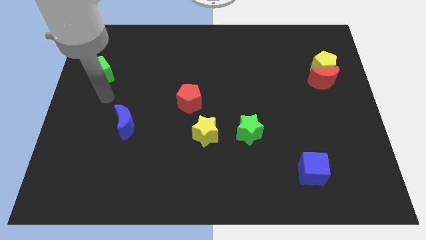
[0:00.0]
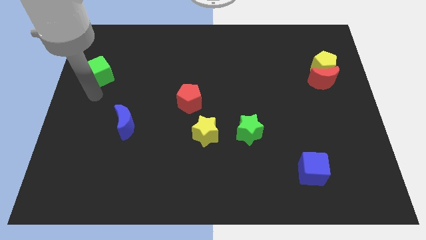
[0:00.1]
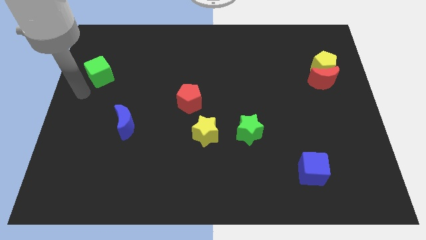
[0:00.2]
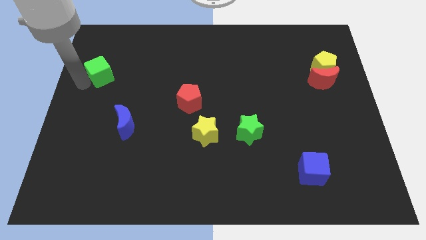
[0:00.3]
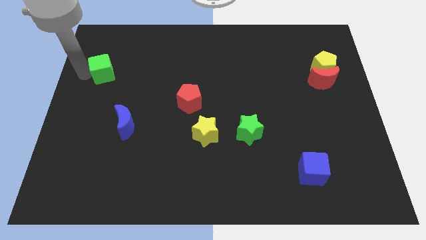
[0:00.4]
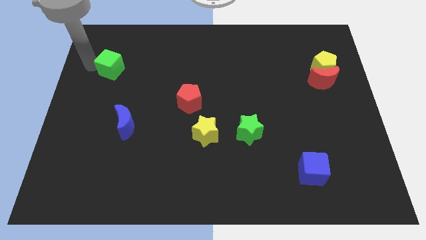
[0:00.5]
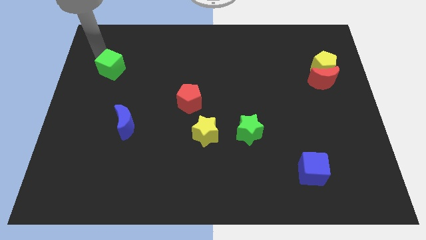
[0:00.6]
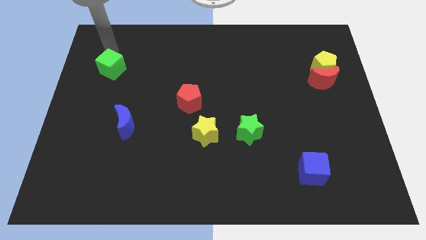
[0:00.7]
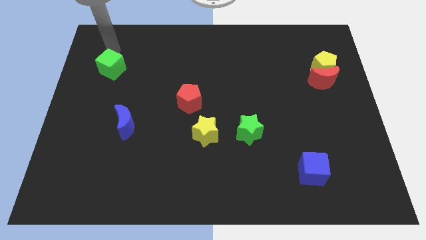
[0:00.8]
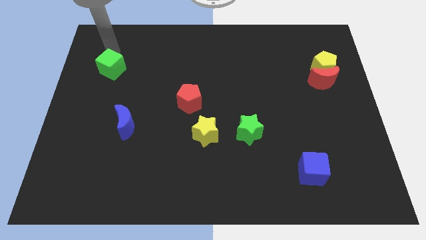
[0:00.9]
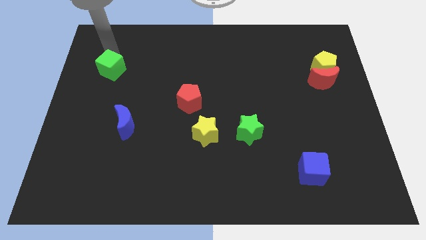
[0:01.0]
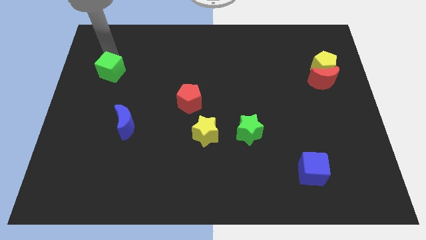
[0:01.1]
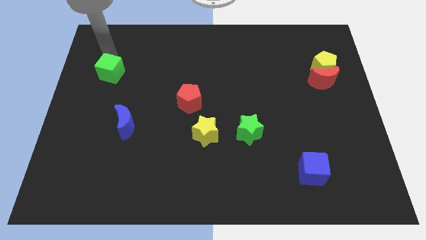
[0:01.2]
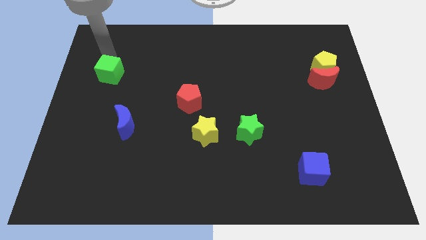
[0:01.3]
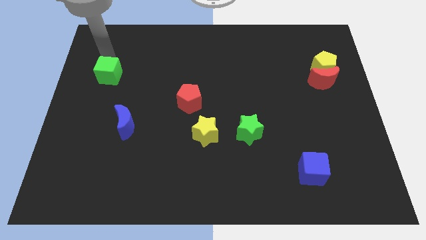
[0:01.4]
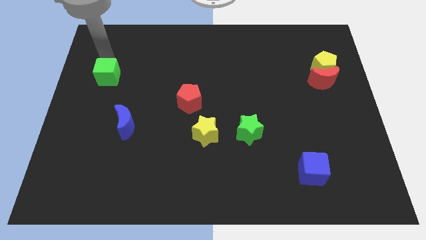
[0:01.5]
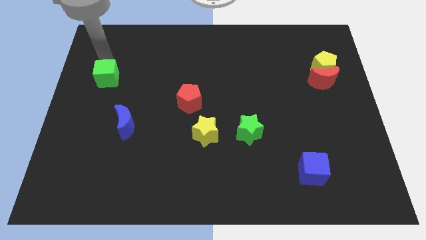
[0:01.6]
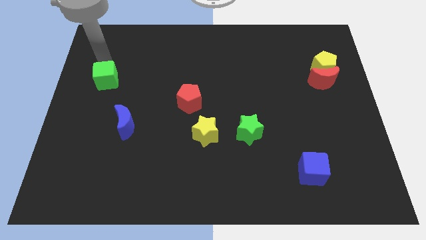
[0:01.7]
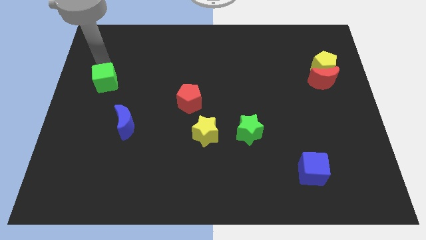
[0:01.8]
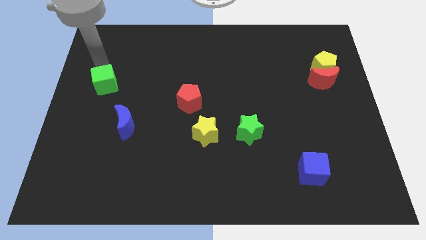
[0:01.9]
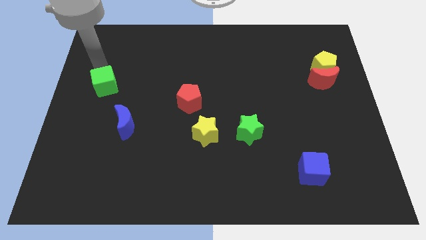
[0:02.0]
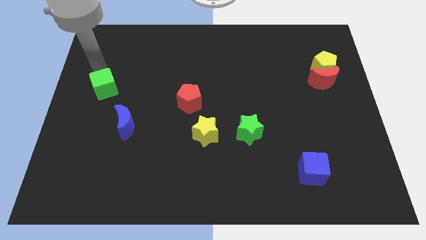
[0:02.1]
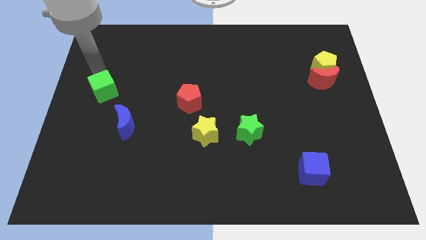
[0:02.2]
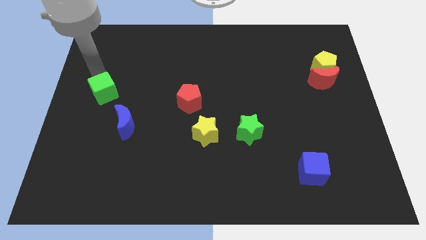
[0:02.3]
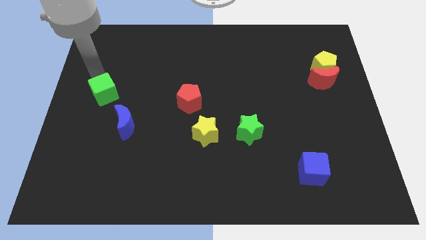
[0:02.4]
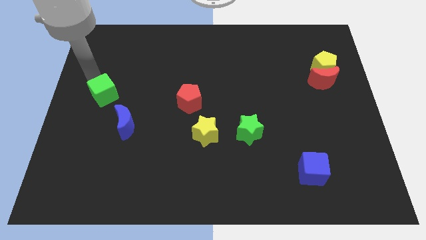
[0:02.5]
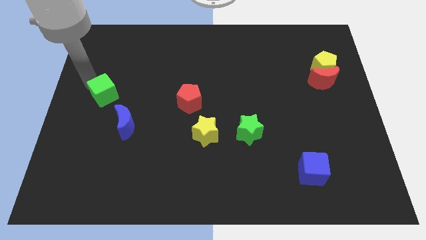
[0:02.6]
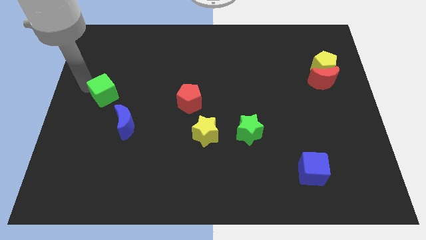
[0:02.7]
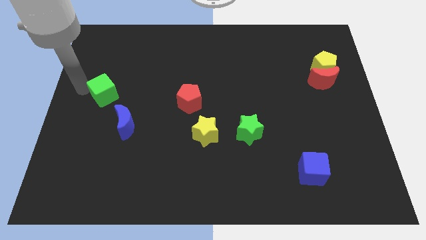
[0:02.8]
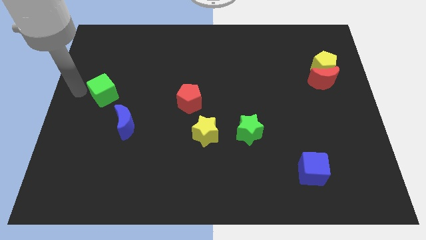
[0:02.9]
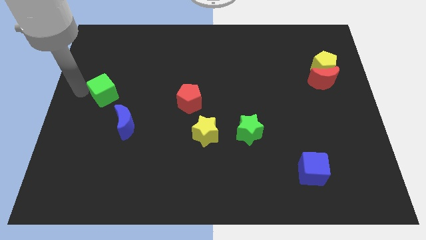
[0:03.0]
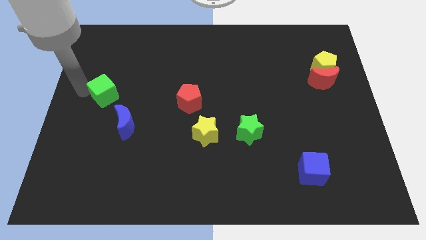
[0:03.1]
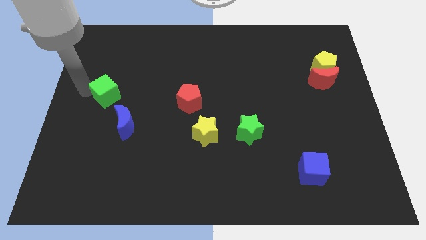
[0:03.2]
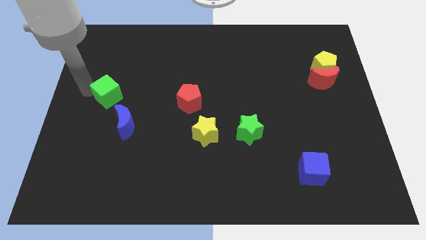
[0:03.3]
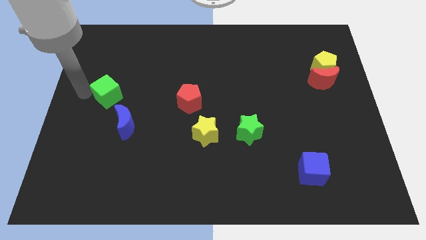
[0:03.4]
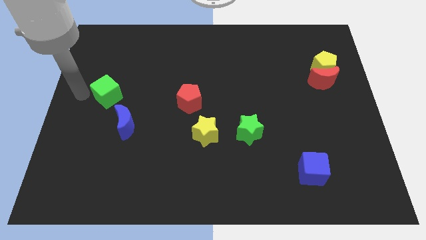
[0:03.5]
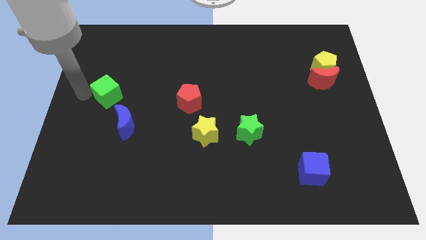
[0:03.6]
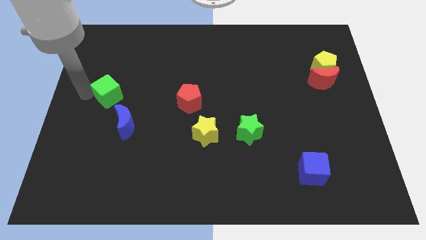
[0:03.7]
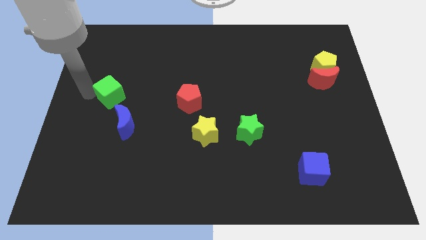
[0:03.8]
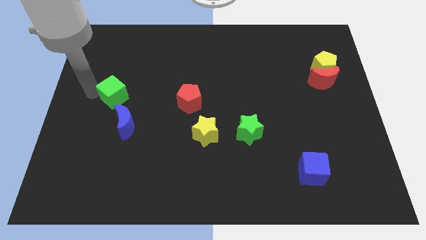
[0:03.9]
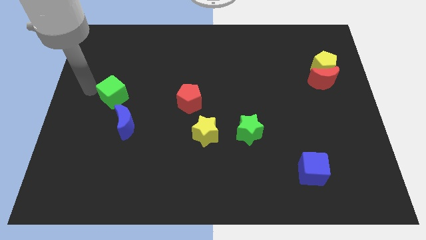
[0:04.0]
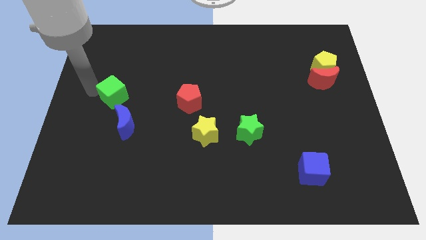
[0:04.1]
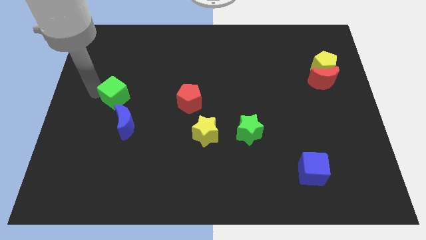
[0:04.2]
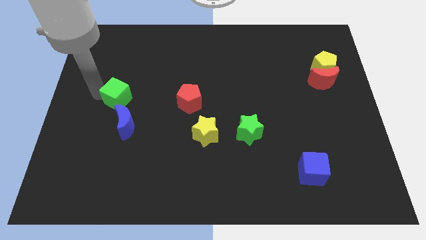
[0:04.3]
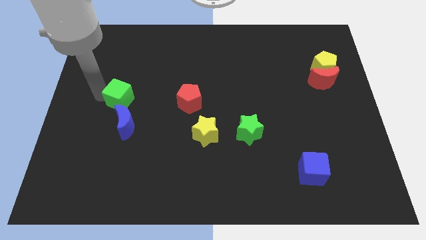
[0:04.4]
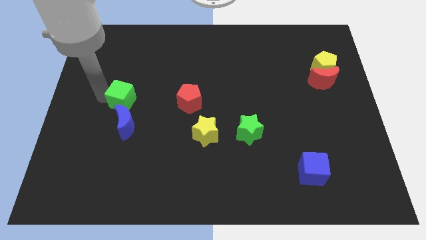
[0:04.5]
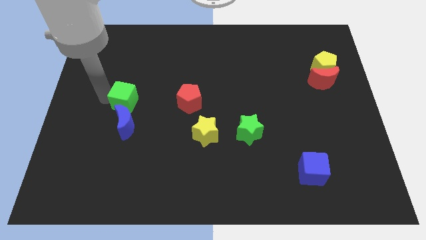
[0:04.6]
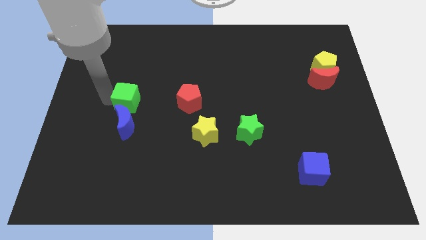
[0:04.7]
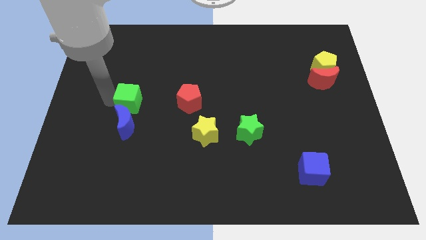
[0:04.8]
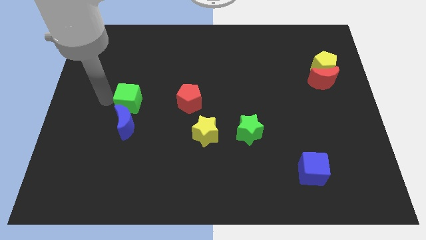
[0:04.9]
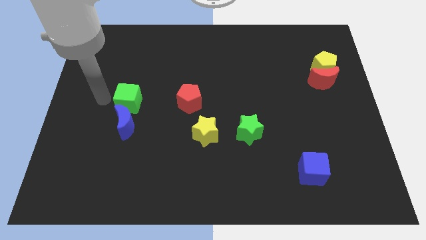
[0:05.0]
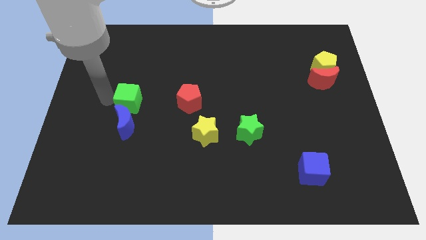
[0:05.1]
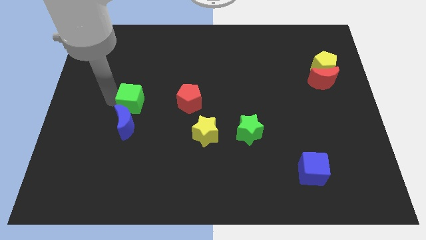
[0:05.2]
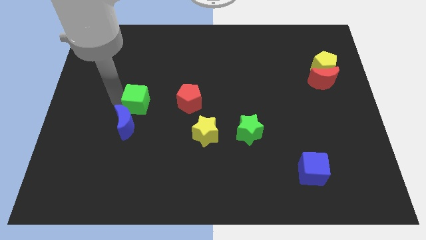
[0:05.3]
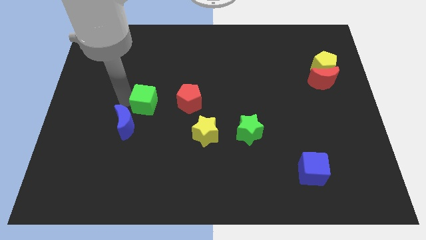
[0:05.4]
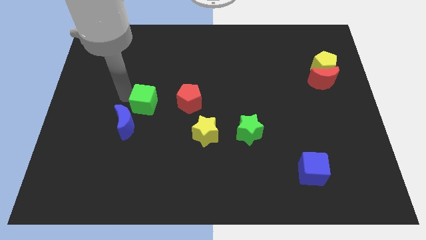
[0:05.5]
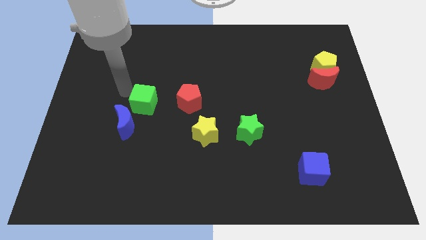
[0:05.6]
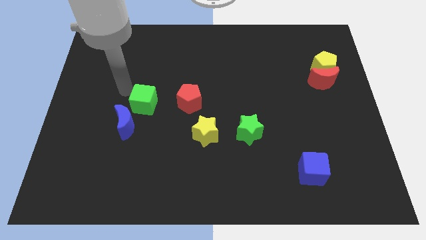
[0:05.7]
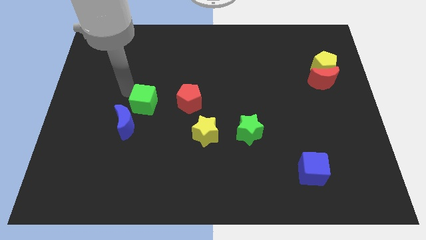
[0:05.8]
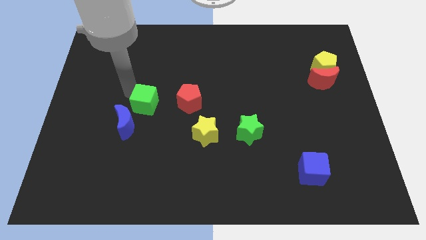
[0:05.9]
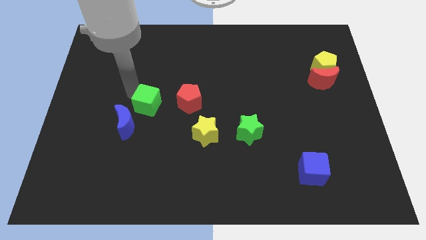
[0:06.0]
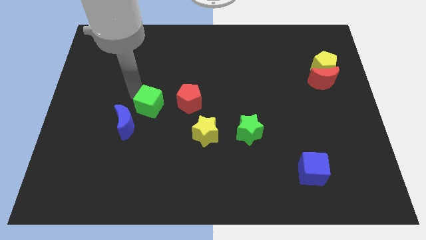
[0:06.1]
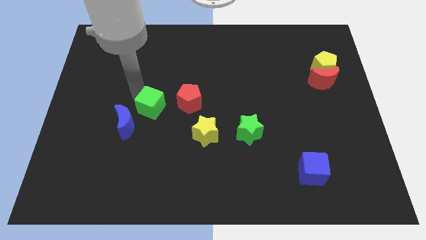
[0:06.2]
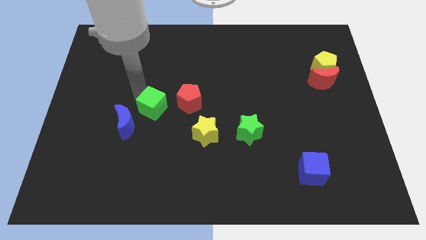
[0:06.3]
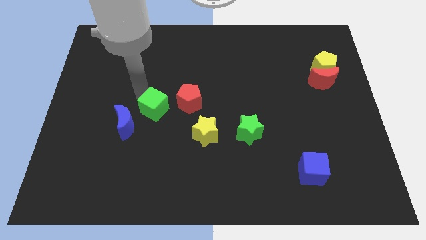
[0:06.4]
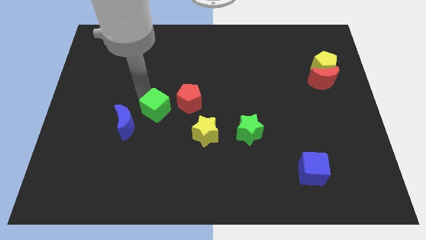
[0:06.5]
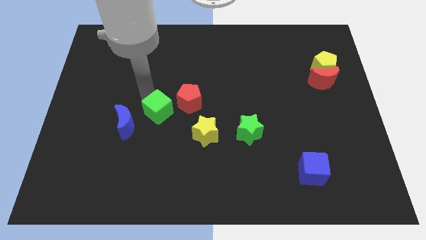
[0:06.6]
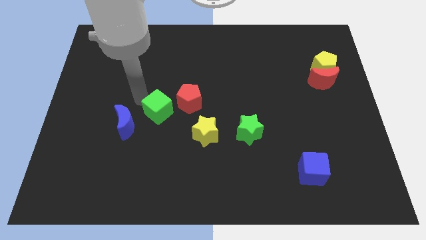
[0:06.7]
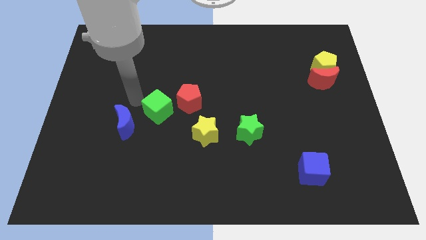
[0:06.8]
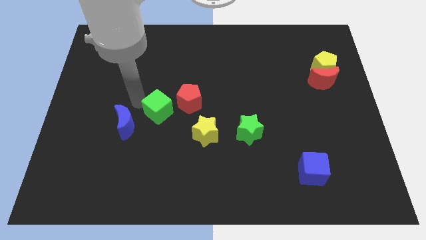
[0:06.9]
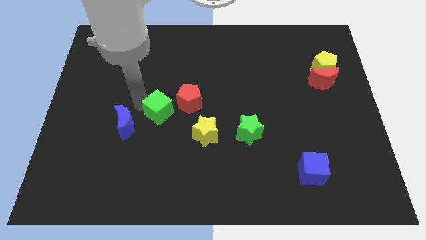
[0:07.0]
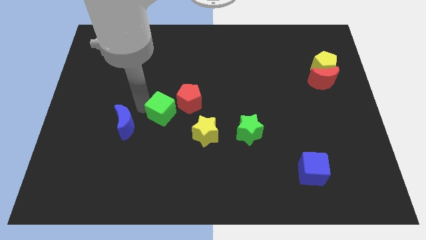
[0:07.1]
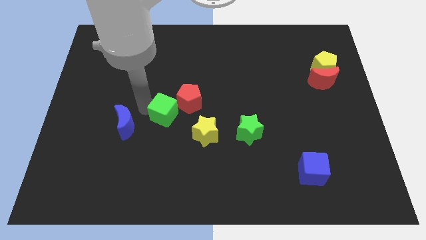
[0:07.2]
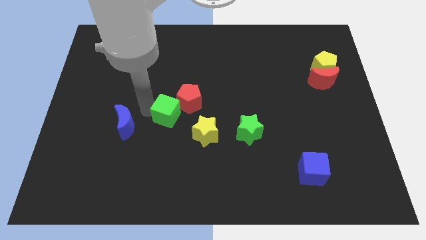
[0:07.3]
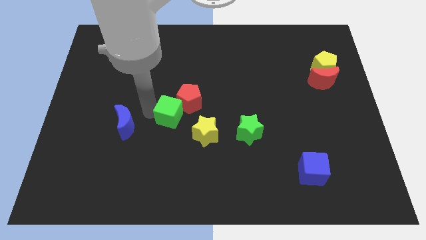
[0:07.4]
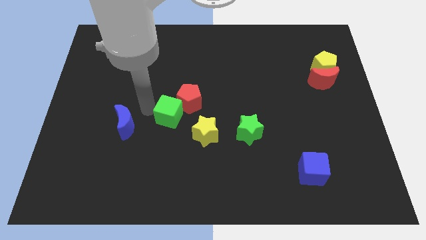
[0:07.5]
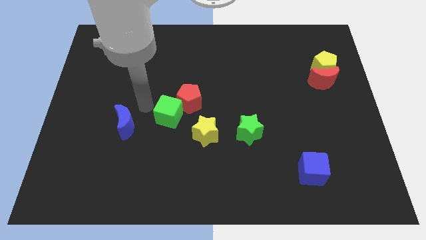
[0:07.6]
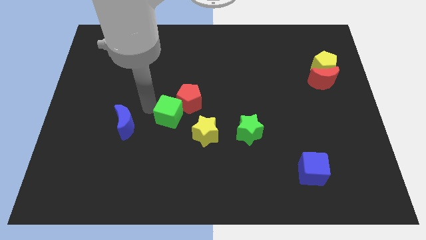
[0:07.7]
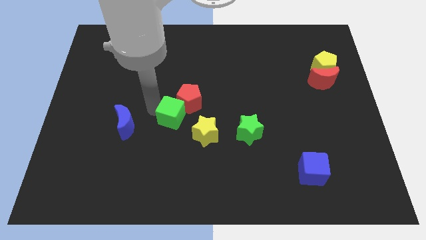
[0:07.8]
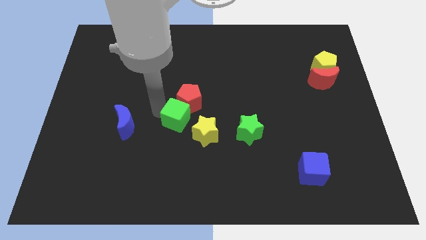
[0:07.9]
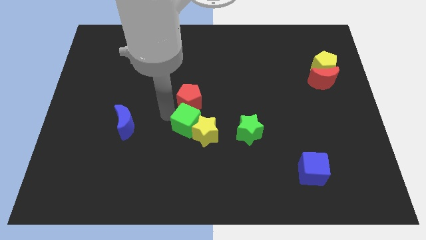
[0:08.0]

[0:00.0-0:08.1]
move the green cube next to the yellow star
